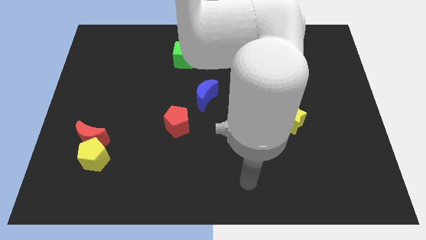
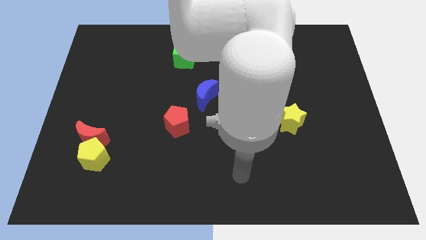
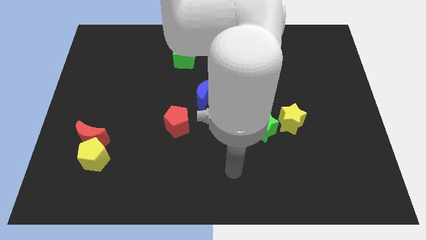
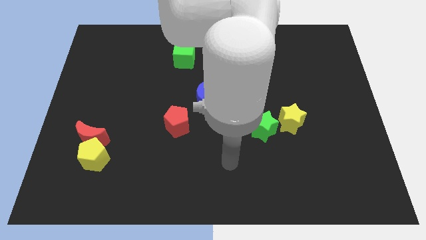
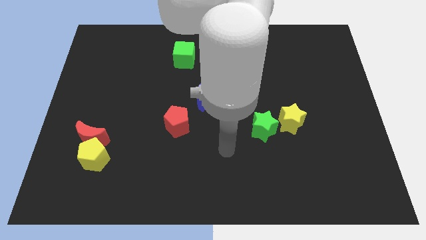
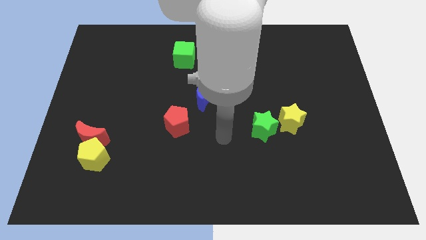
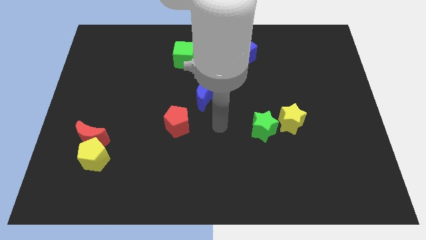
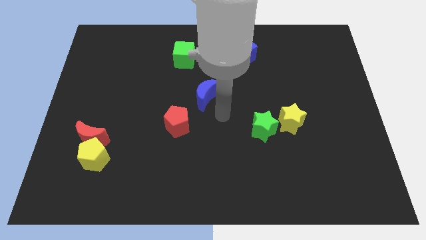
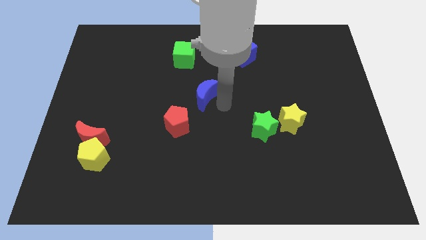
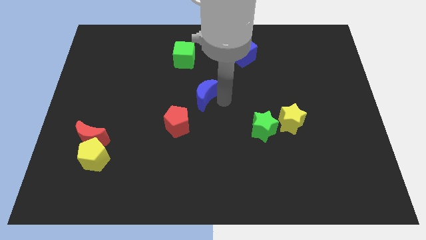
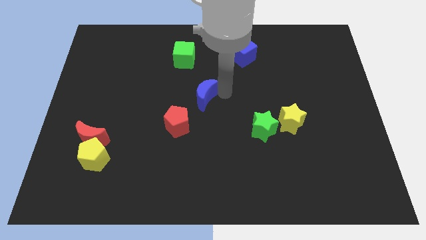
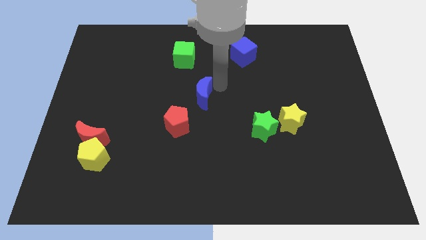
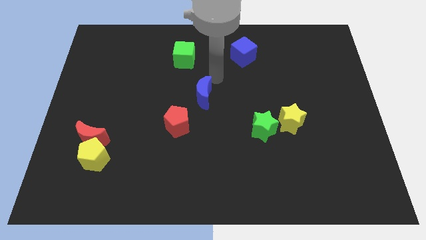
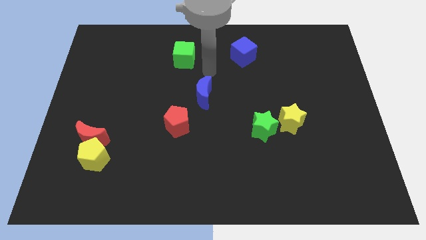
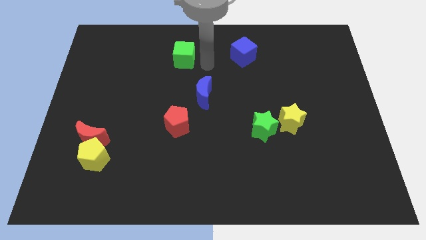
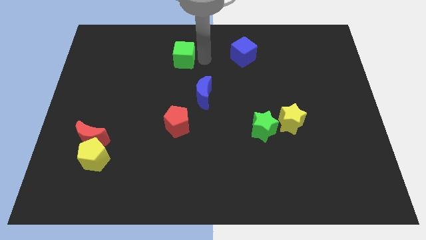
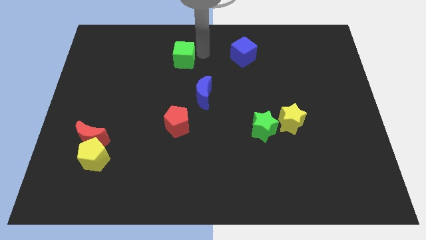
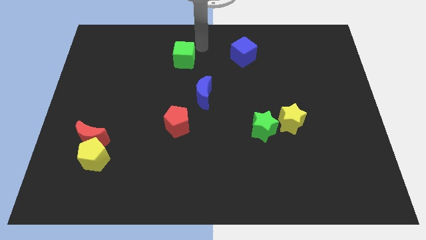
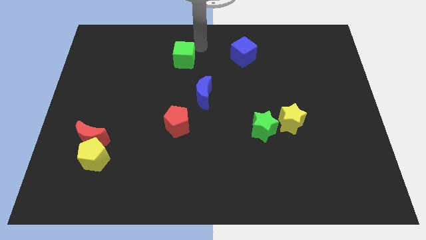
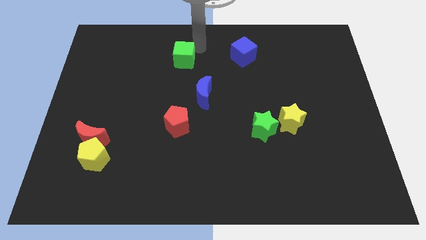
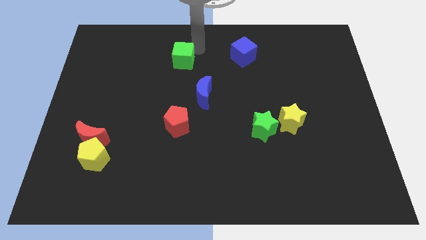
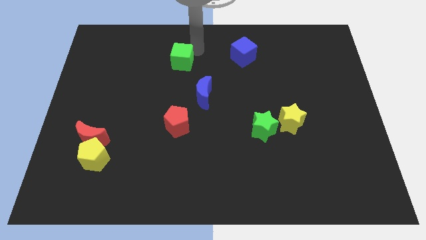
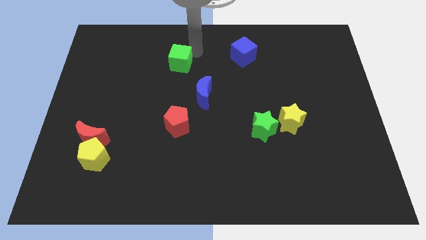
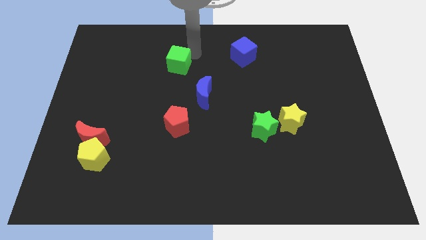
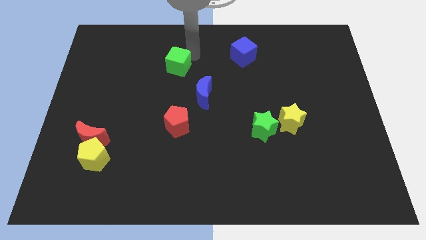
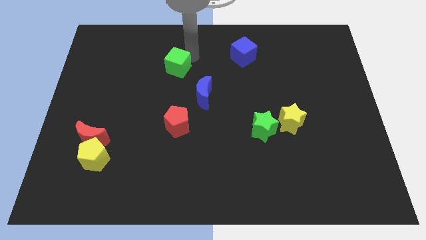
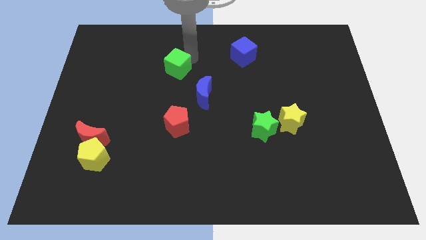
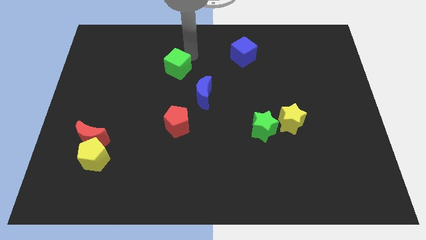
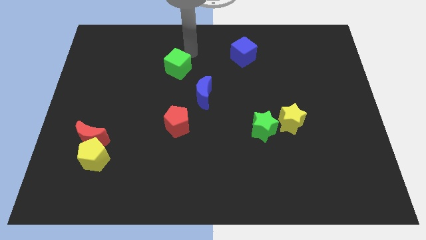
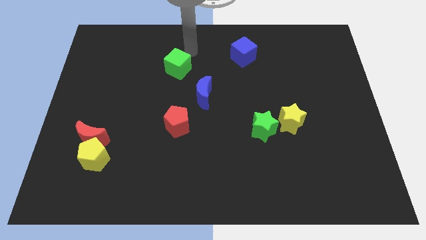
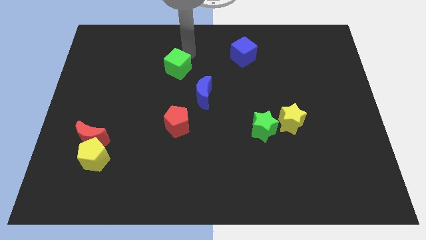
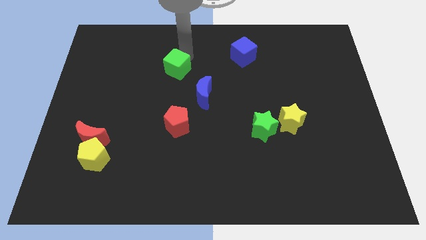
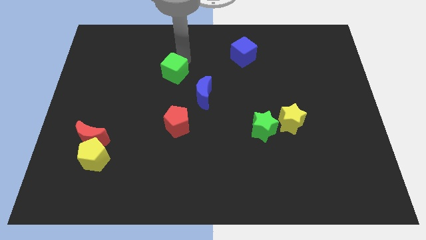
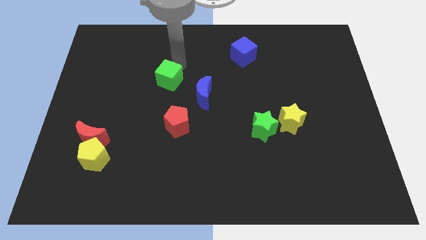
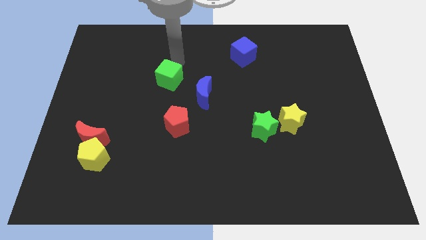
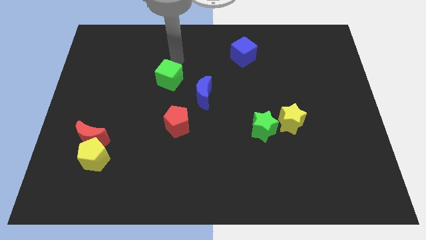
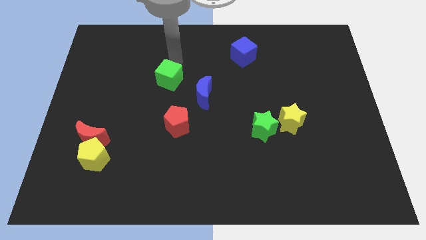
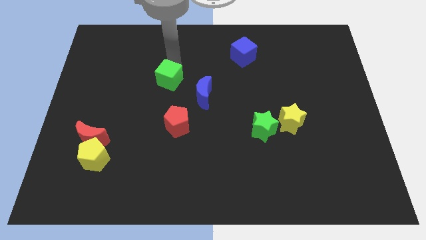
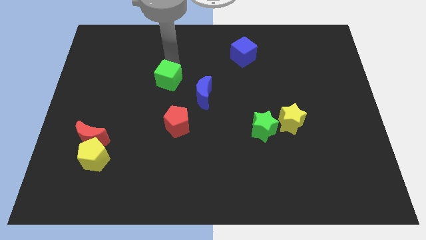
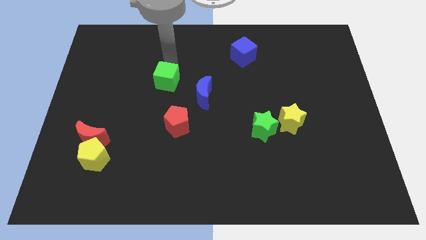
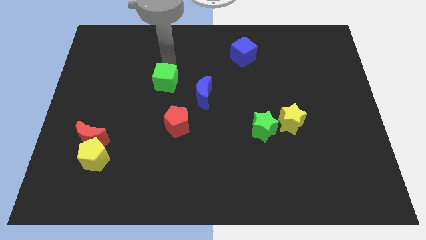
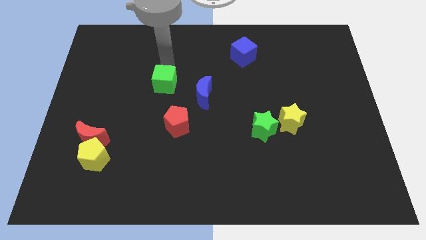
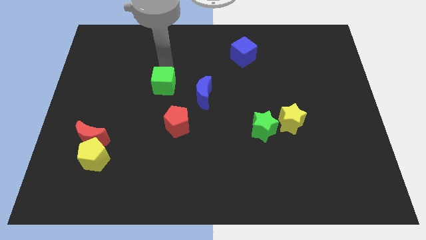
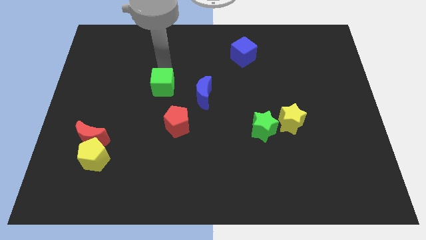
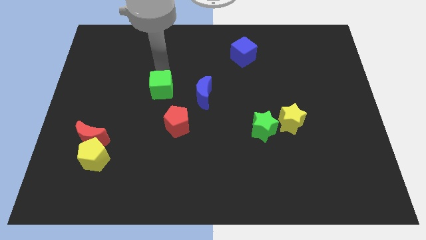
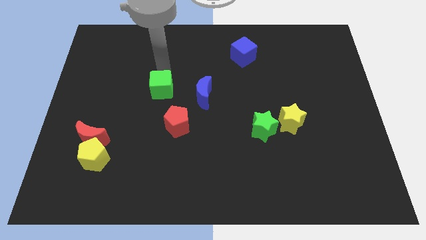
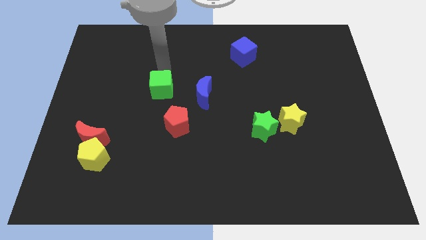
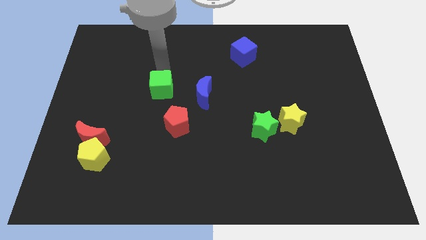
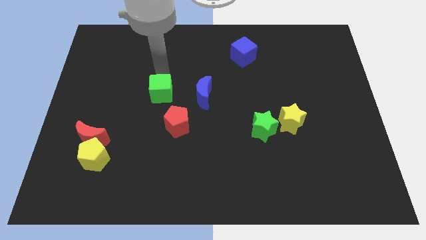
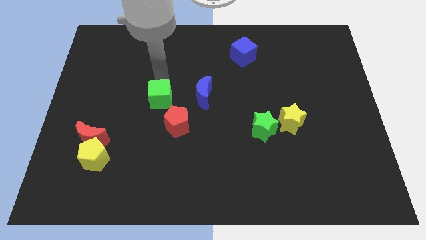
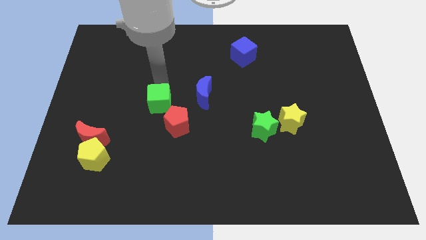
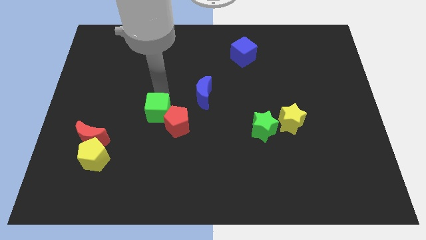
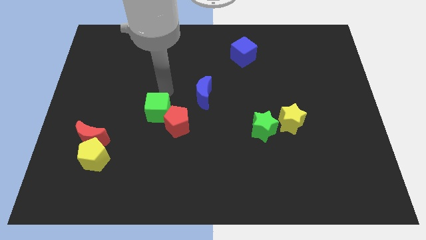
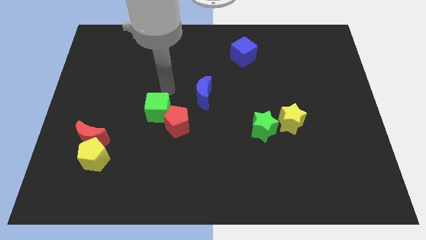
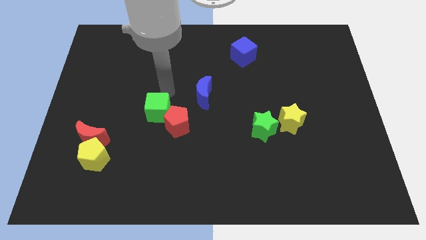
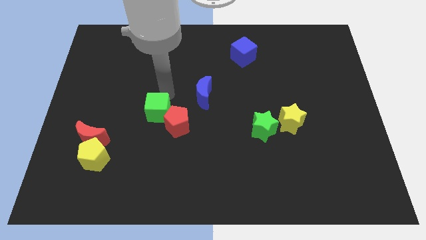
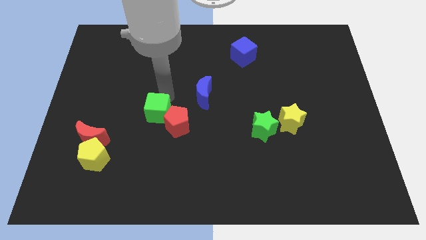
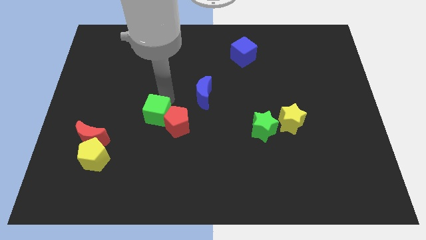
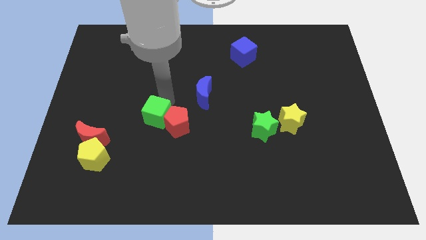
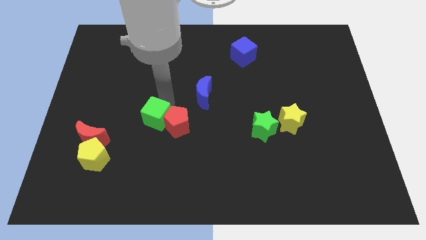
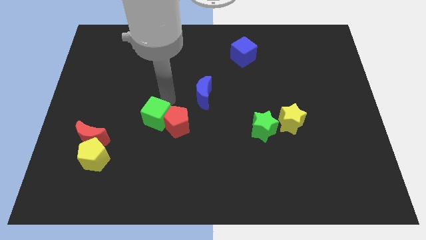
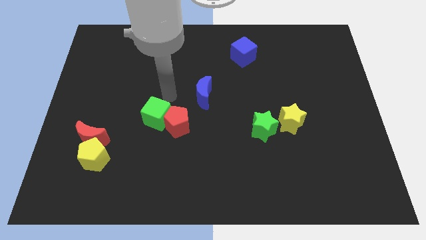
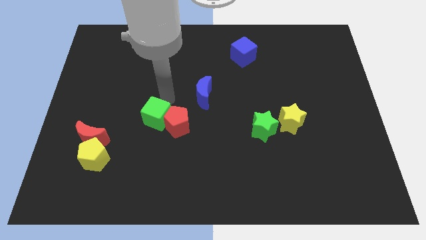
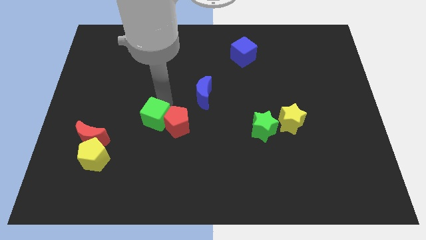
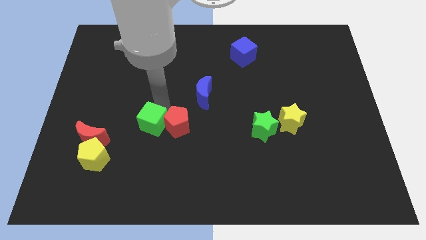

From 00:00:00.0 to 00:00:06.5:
slide the green cube to the right of the red moon

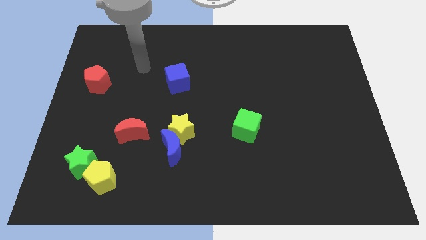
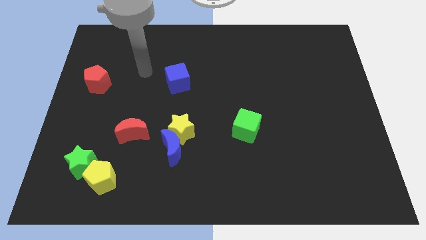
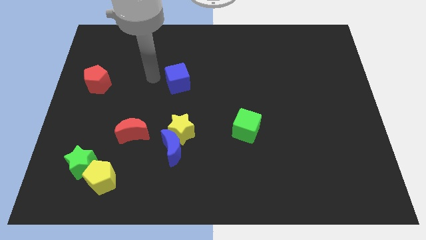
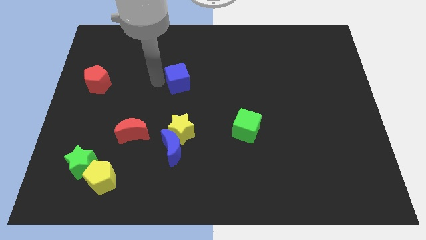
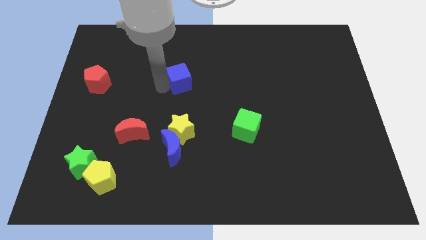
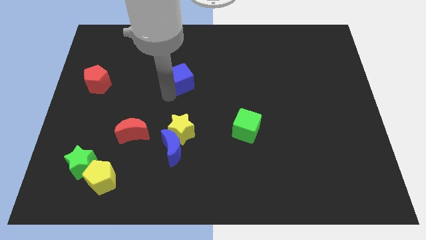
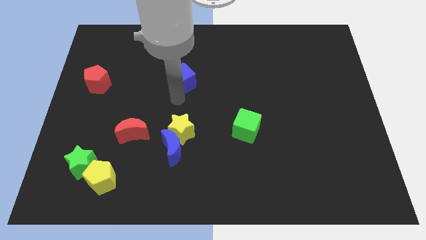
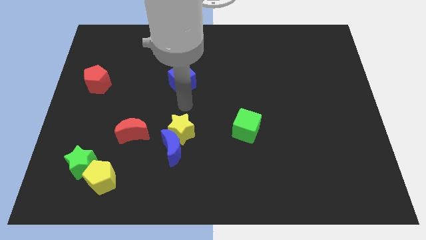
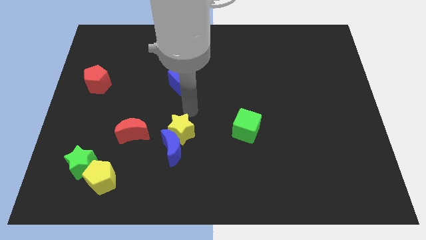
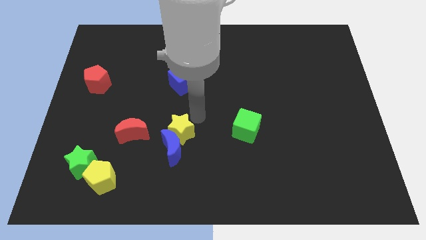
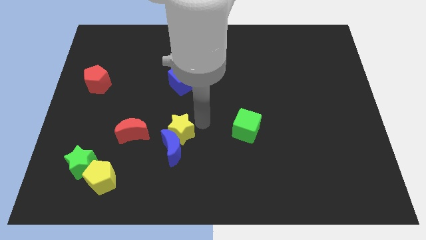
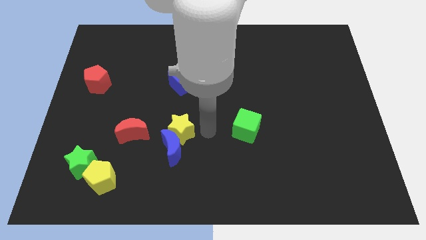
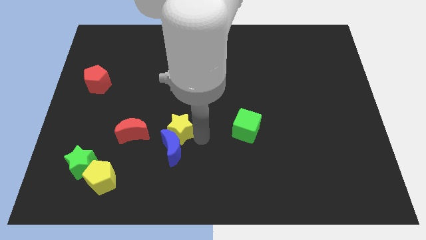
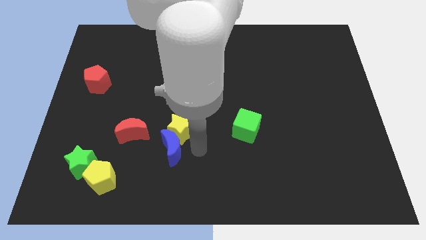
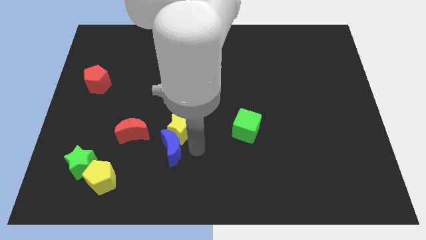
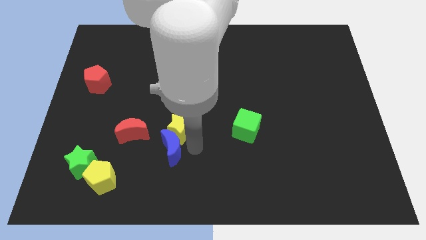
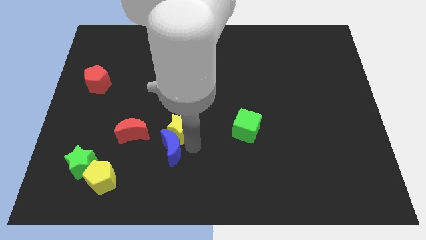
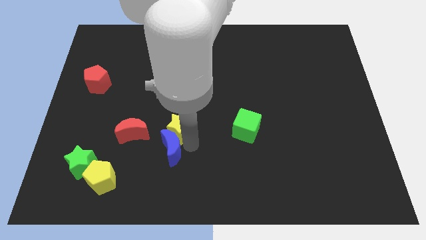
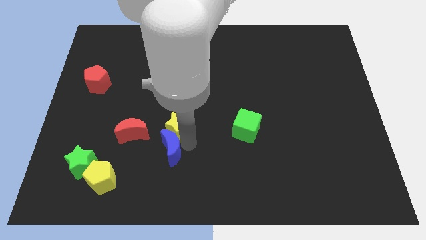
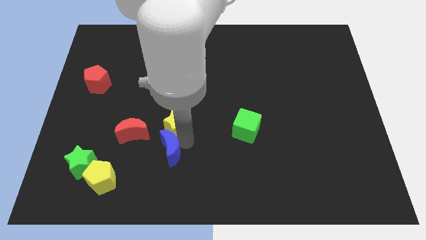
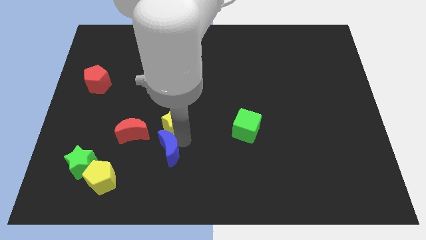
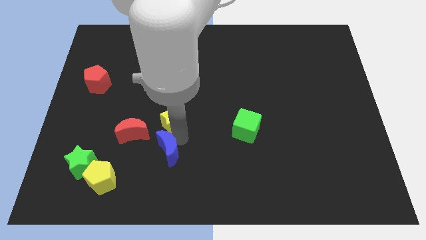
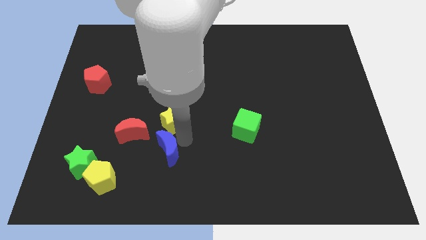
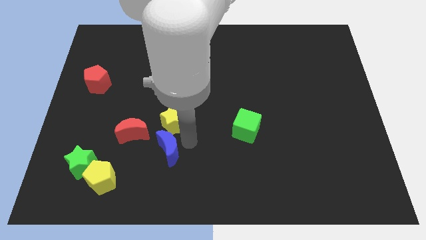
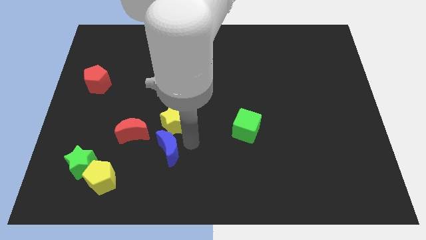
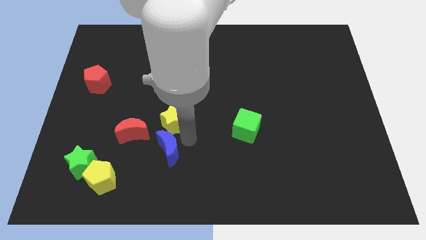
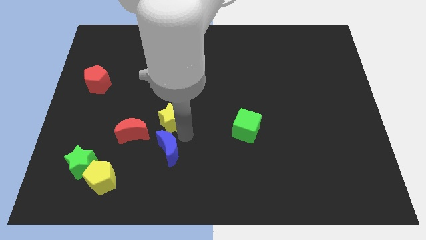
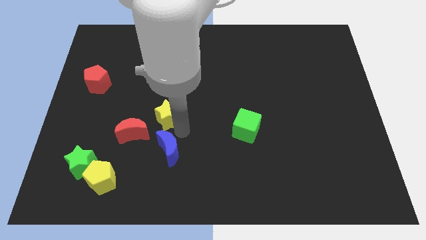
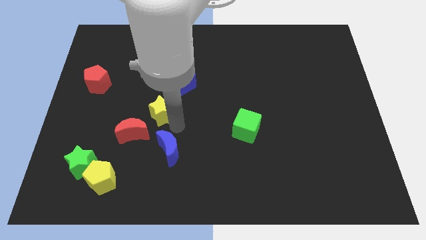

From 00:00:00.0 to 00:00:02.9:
move the yellow star diagonally down and to the left of the blue cube
